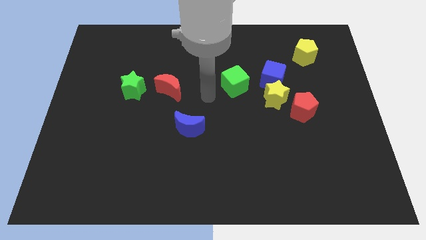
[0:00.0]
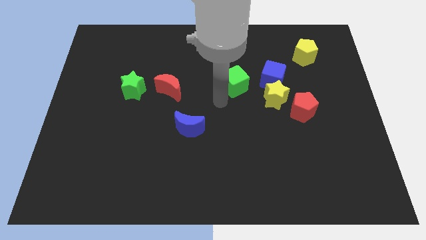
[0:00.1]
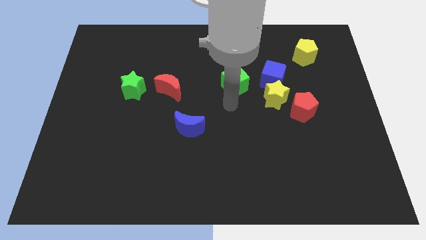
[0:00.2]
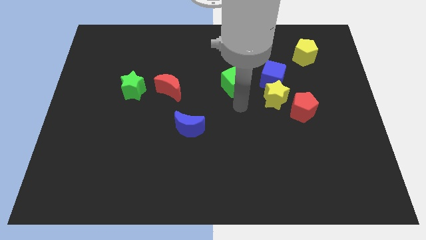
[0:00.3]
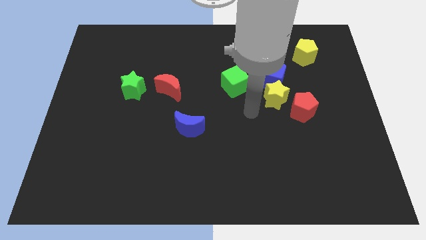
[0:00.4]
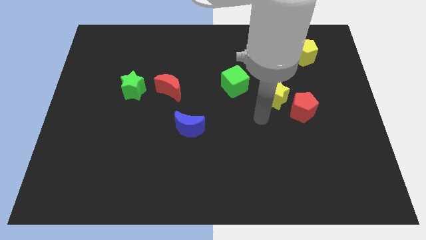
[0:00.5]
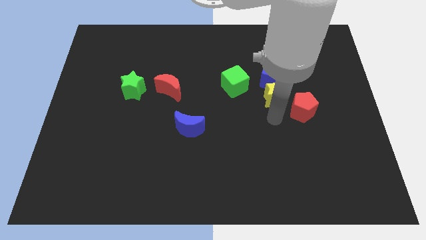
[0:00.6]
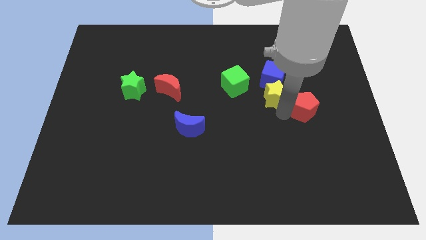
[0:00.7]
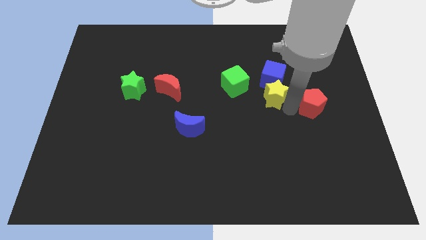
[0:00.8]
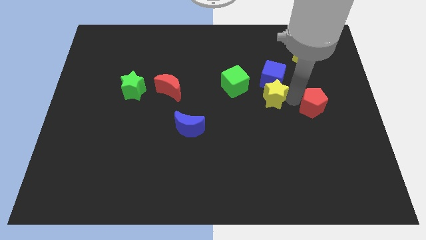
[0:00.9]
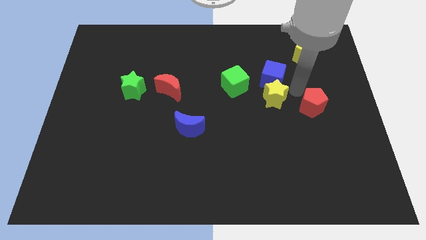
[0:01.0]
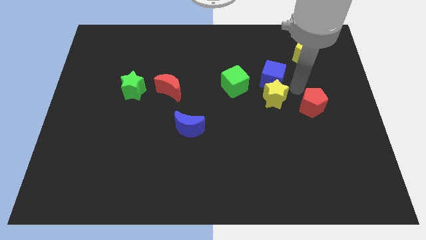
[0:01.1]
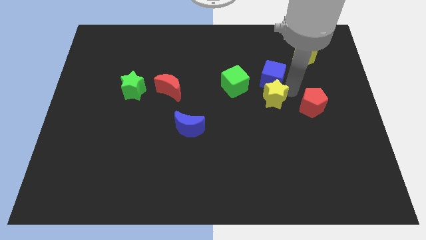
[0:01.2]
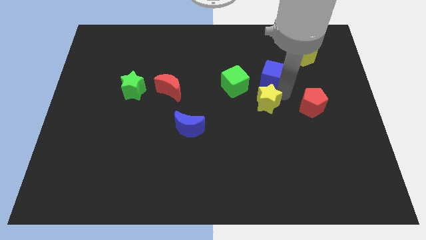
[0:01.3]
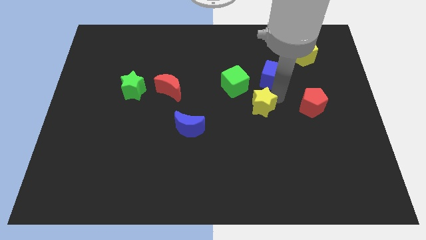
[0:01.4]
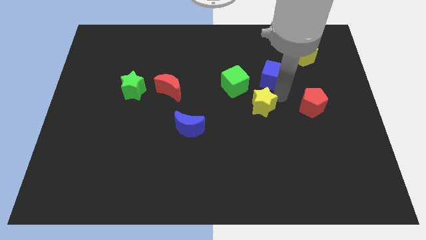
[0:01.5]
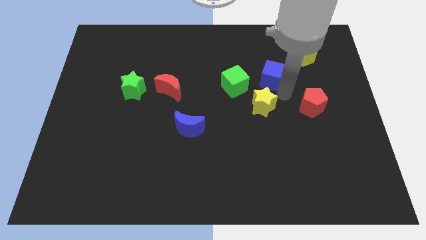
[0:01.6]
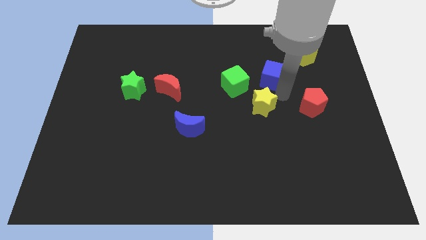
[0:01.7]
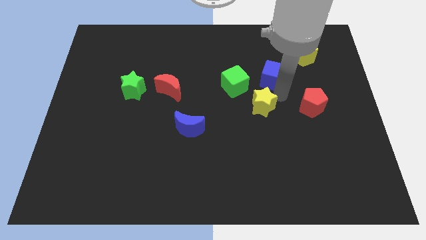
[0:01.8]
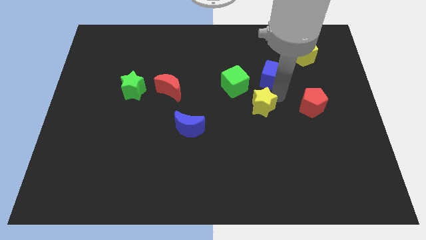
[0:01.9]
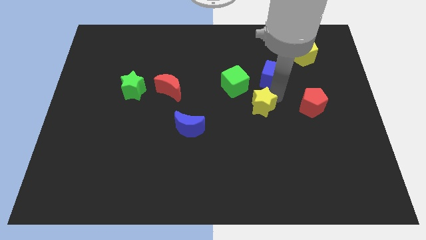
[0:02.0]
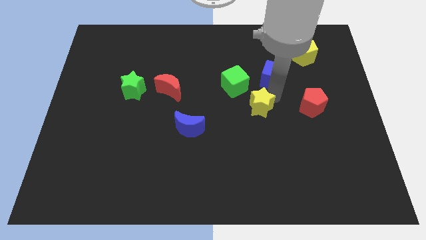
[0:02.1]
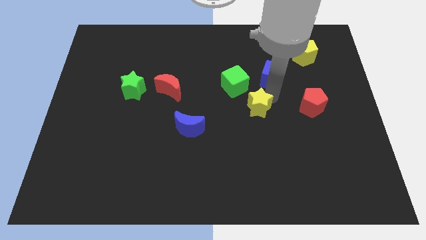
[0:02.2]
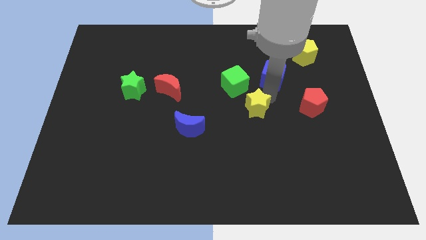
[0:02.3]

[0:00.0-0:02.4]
move the yellow star away from the blue cube and red pentagon

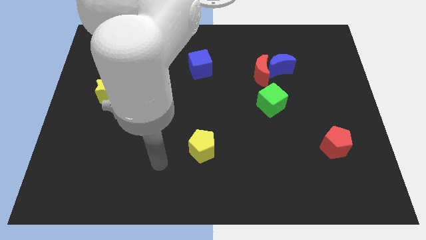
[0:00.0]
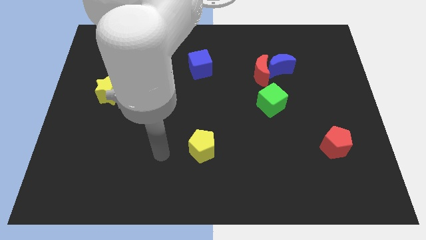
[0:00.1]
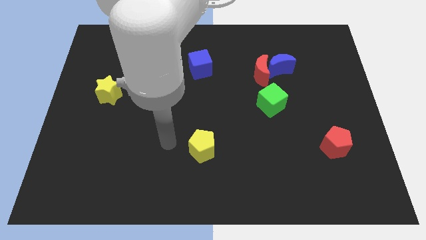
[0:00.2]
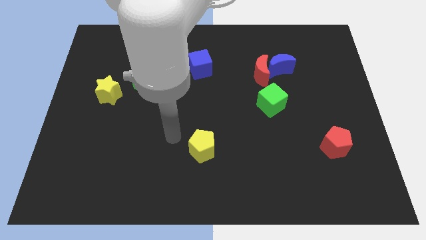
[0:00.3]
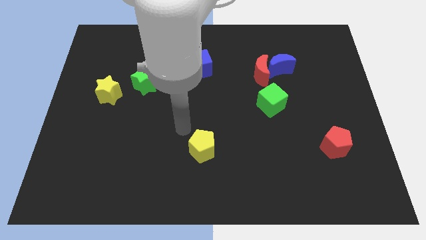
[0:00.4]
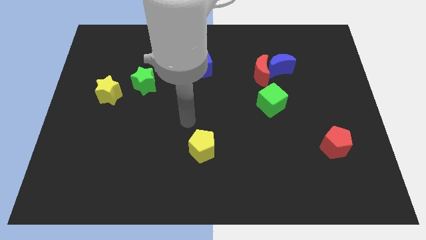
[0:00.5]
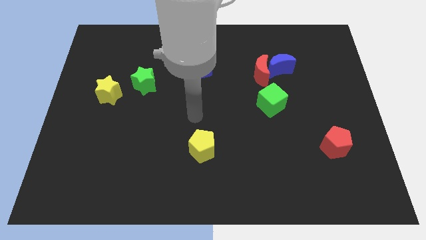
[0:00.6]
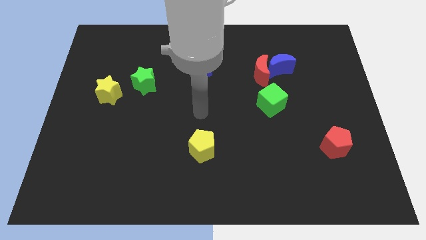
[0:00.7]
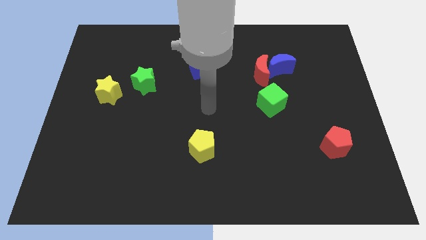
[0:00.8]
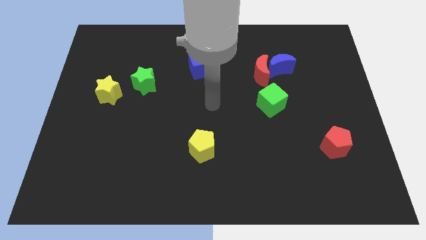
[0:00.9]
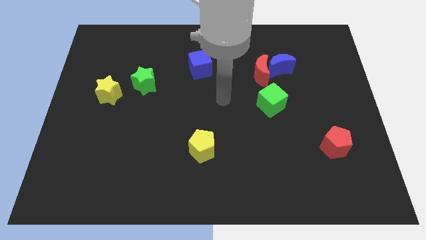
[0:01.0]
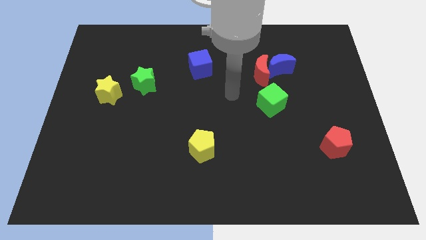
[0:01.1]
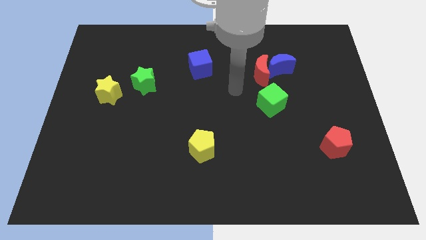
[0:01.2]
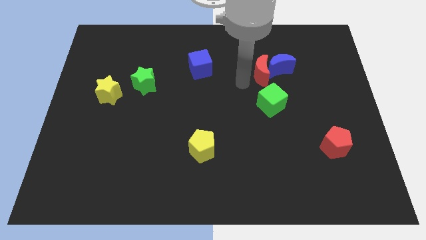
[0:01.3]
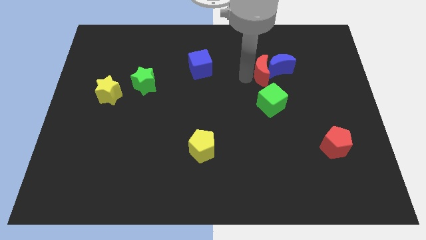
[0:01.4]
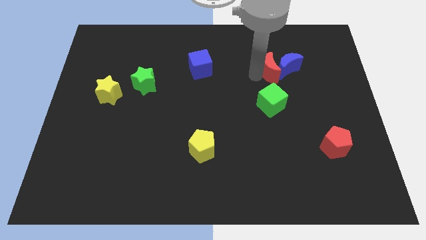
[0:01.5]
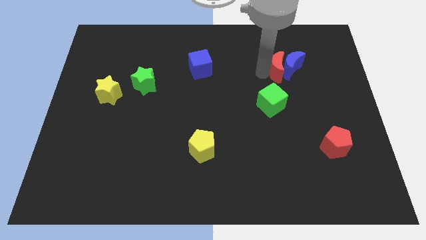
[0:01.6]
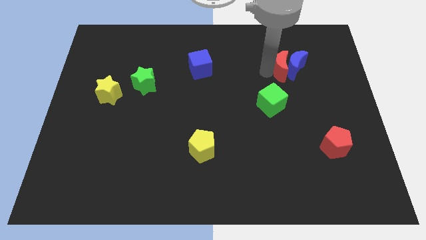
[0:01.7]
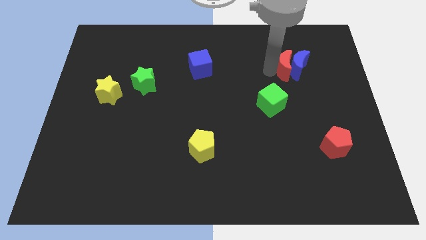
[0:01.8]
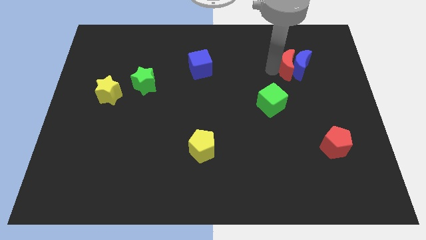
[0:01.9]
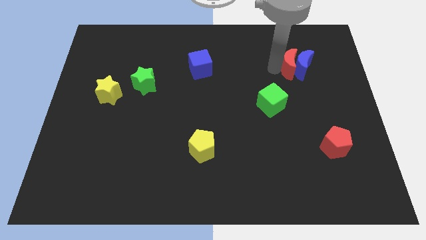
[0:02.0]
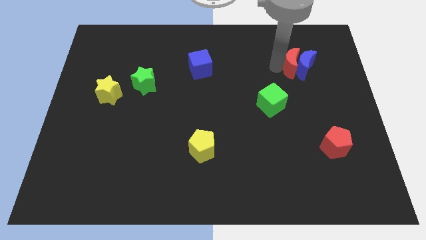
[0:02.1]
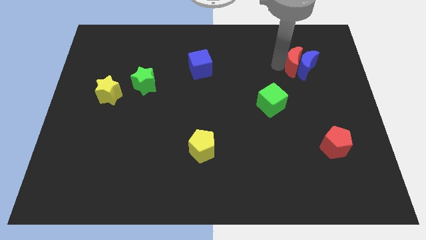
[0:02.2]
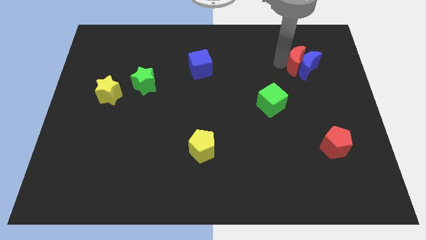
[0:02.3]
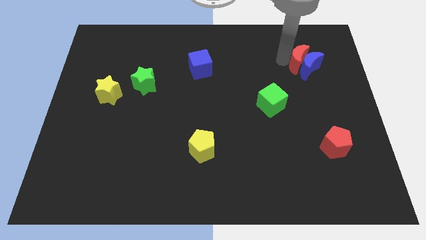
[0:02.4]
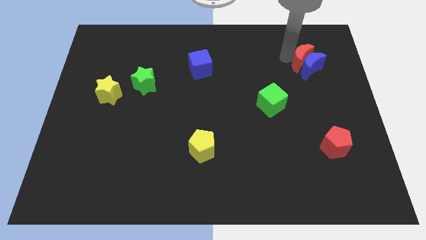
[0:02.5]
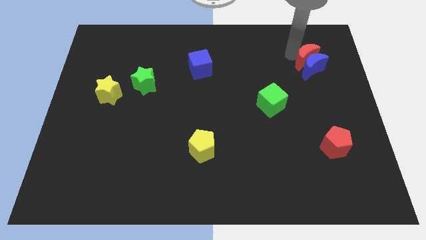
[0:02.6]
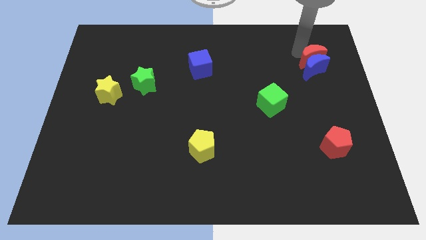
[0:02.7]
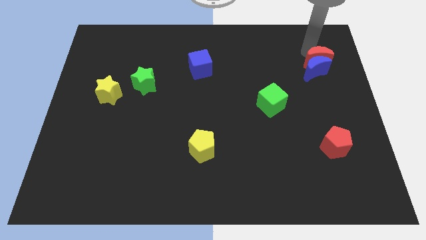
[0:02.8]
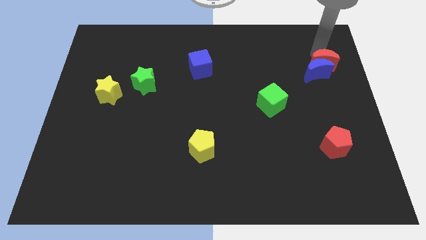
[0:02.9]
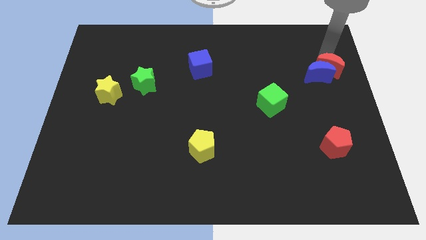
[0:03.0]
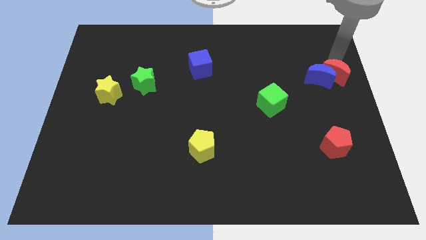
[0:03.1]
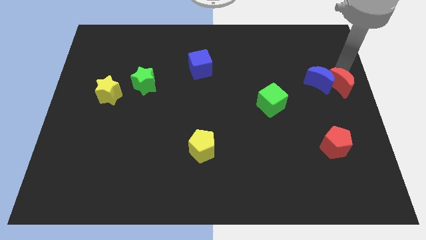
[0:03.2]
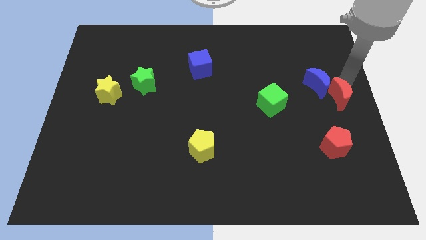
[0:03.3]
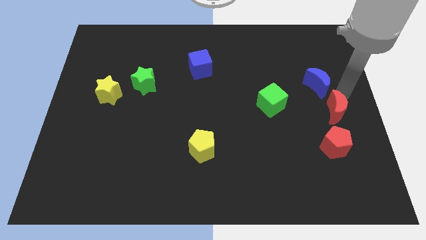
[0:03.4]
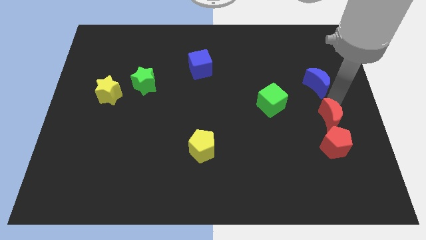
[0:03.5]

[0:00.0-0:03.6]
pull the blue moon apart from the red moon

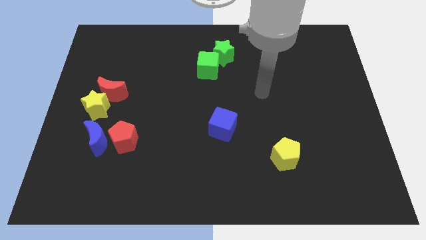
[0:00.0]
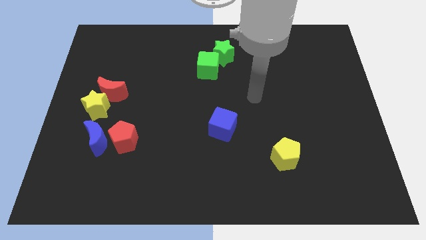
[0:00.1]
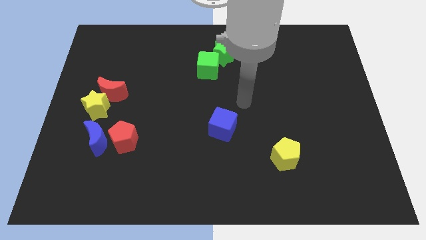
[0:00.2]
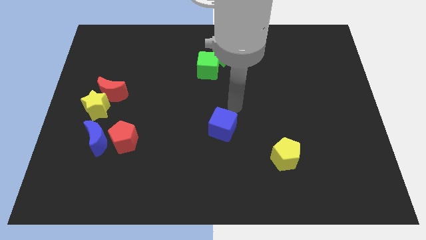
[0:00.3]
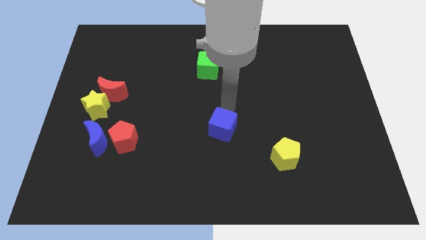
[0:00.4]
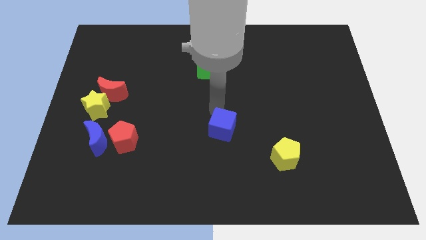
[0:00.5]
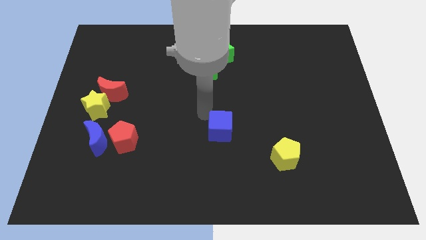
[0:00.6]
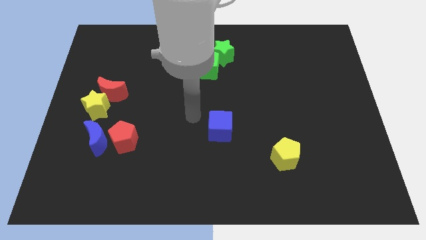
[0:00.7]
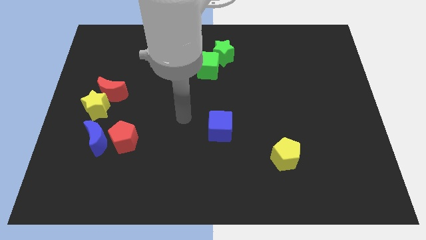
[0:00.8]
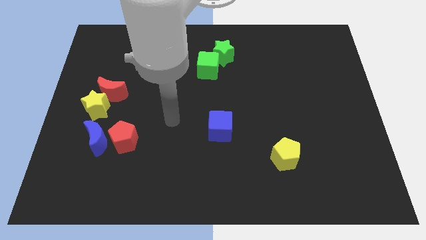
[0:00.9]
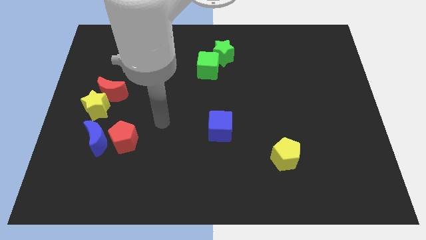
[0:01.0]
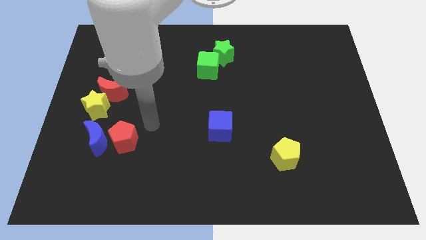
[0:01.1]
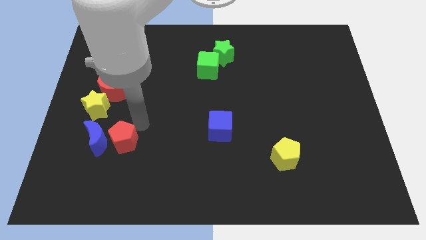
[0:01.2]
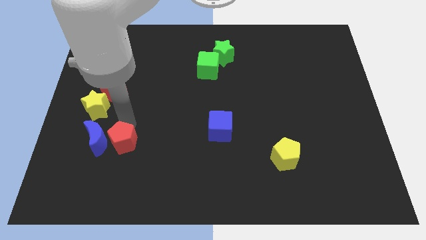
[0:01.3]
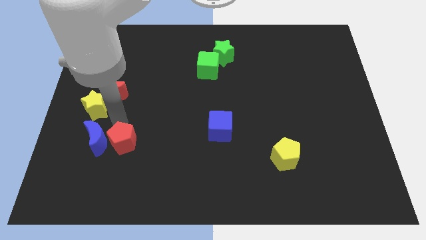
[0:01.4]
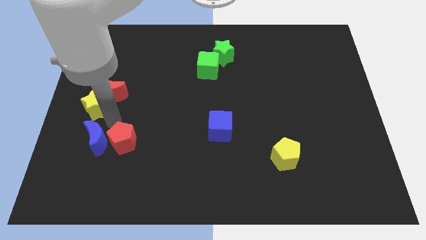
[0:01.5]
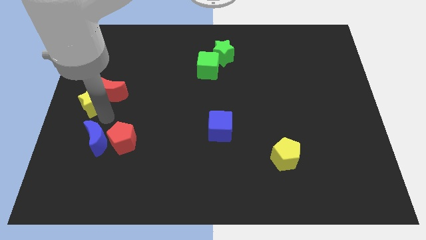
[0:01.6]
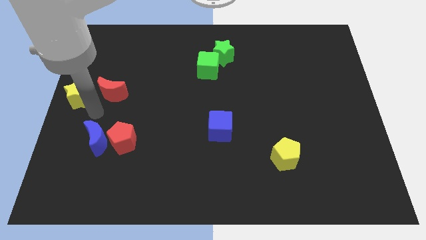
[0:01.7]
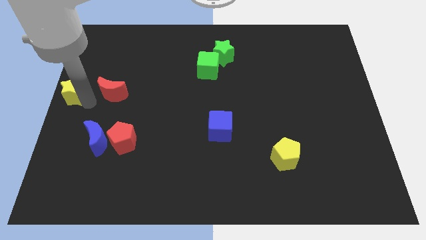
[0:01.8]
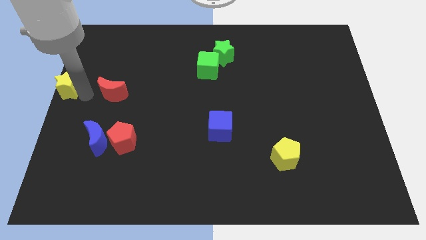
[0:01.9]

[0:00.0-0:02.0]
pull the red moon apart from the yellow star

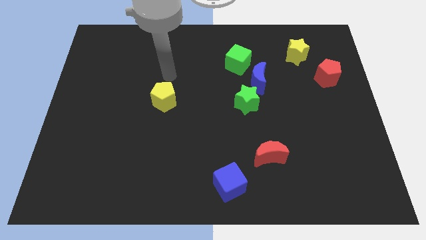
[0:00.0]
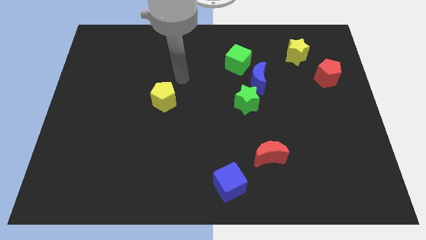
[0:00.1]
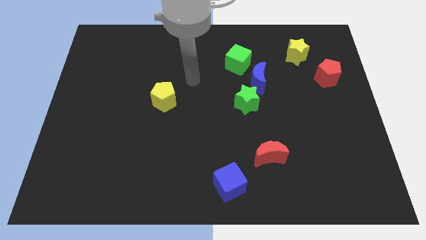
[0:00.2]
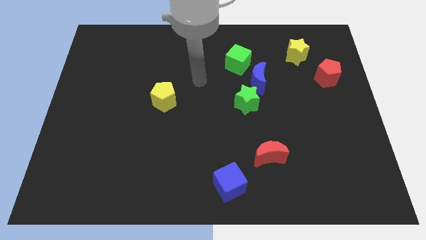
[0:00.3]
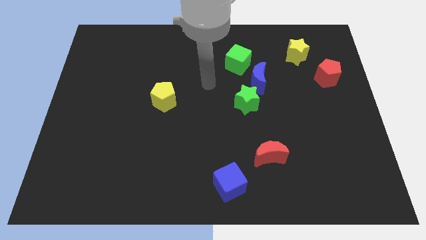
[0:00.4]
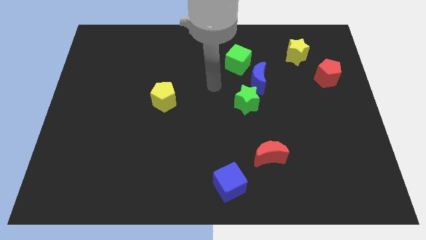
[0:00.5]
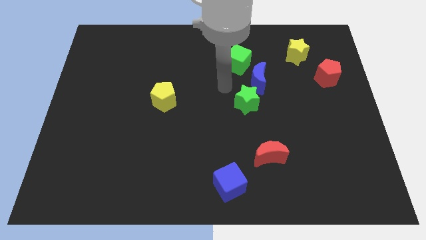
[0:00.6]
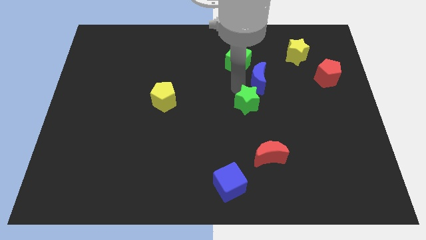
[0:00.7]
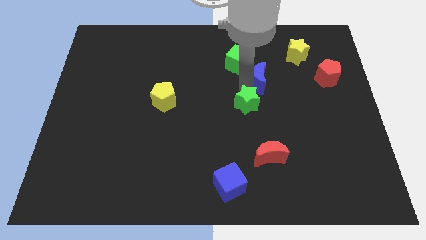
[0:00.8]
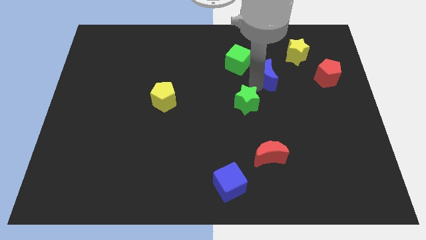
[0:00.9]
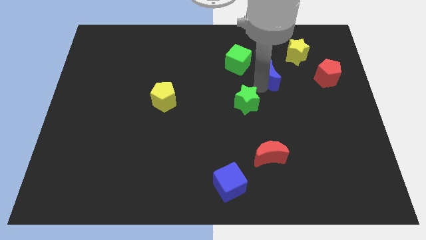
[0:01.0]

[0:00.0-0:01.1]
separate the green star from the blue moon

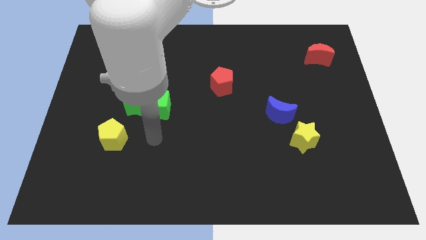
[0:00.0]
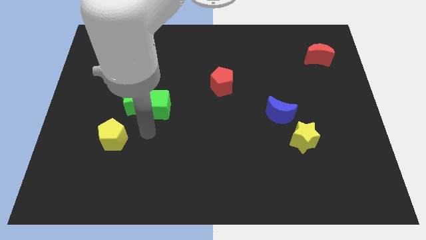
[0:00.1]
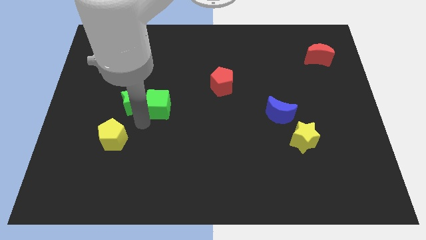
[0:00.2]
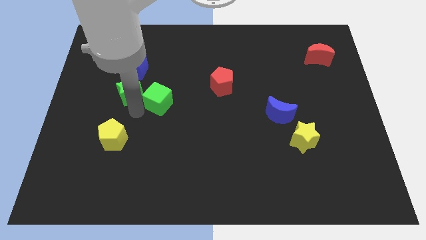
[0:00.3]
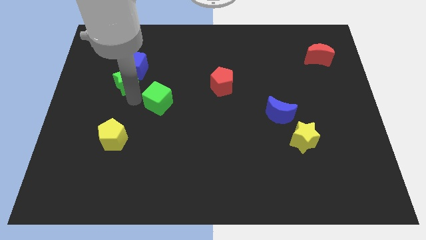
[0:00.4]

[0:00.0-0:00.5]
pull the green cube apart from the green star
